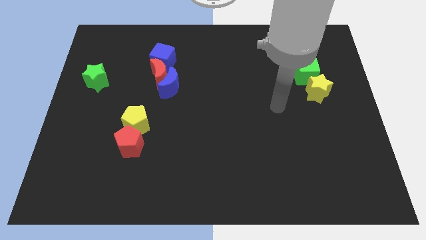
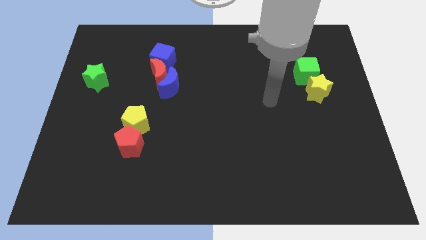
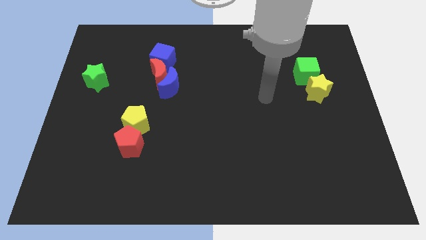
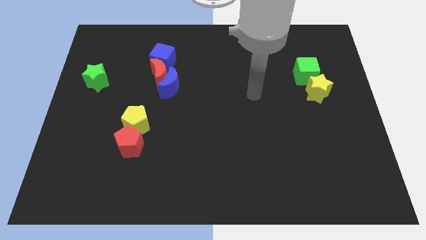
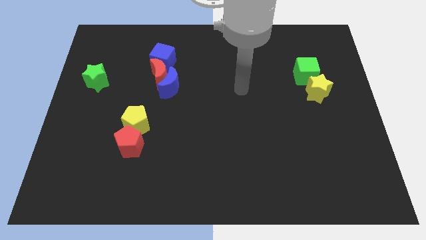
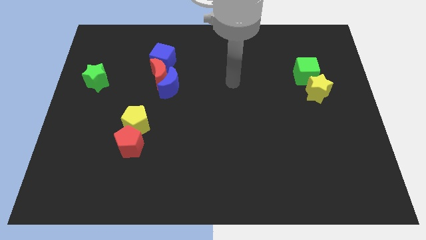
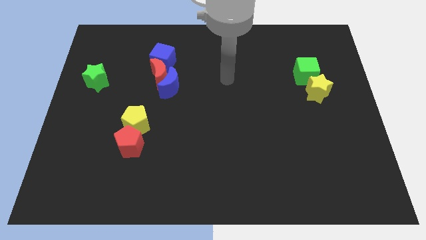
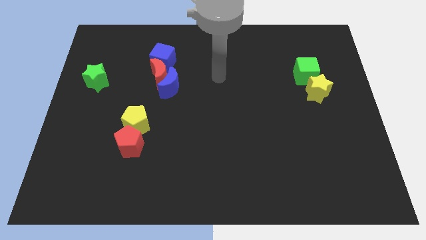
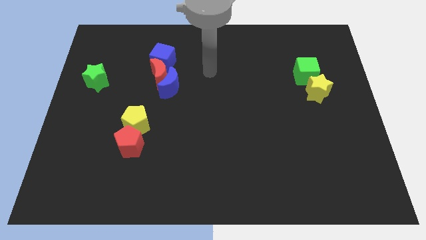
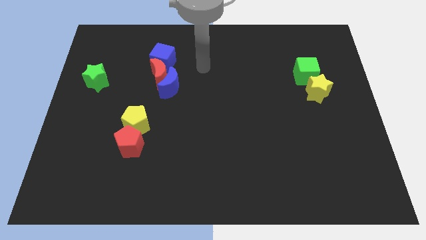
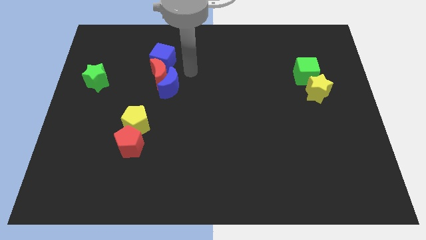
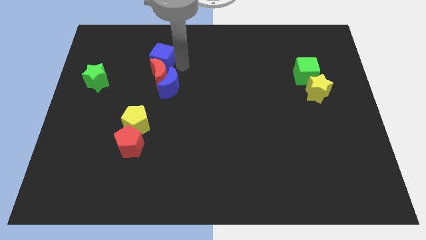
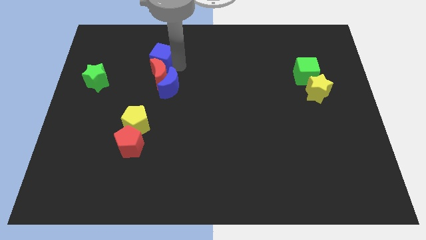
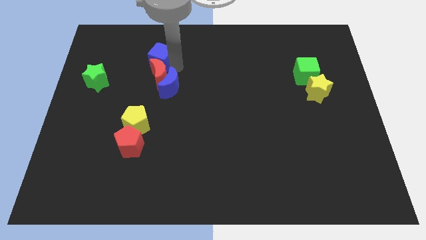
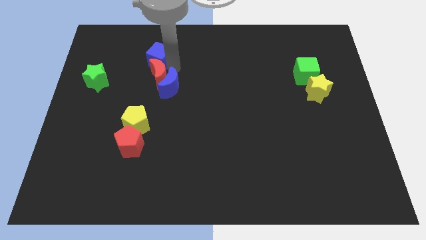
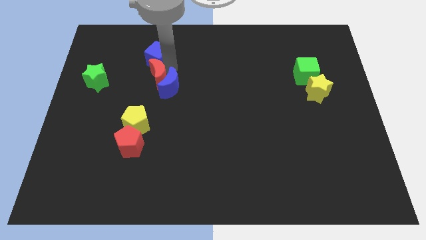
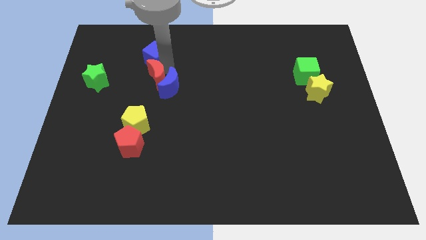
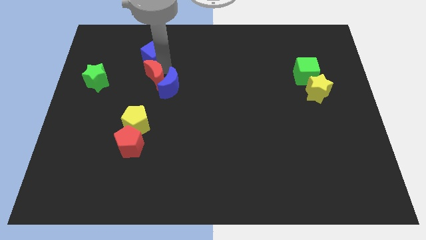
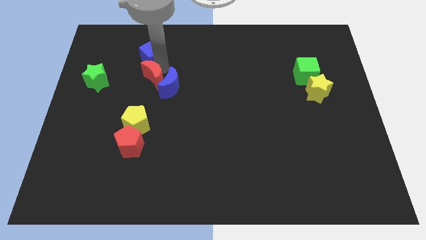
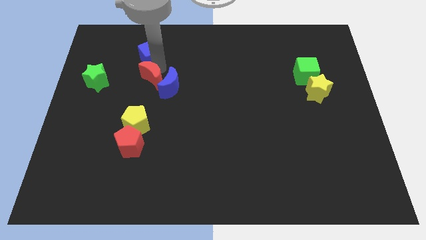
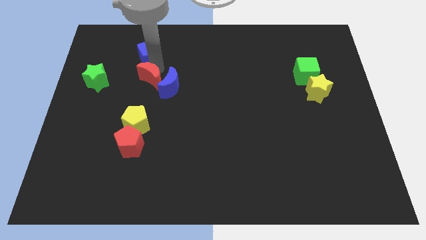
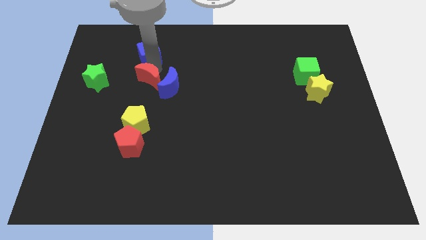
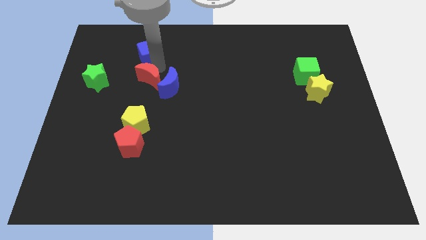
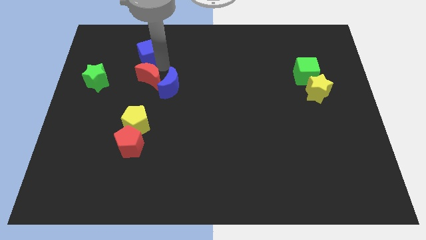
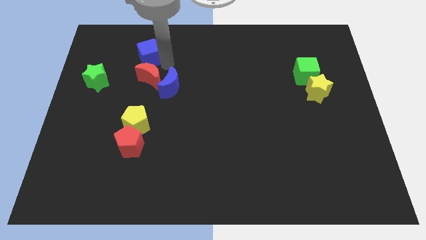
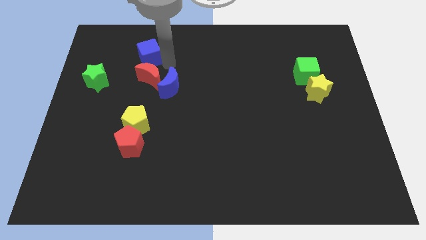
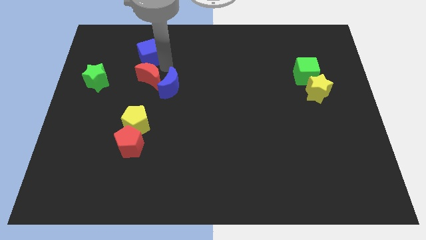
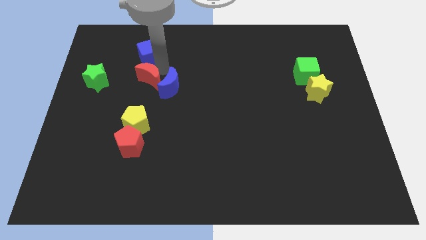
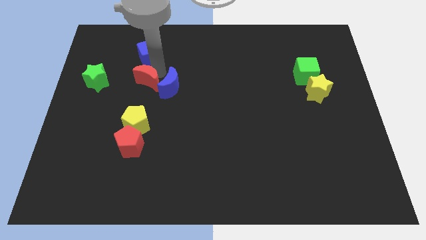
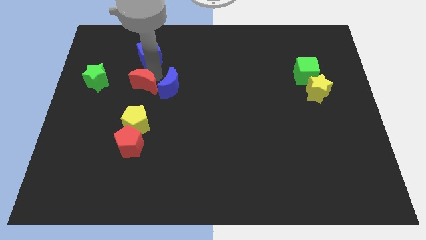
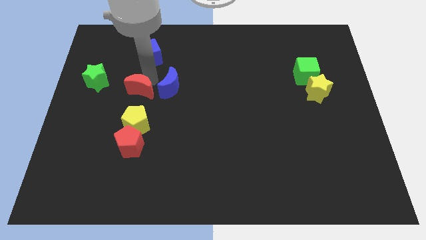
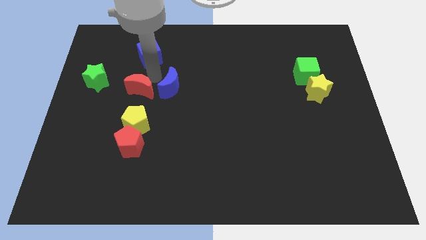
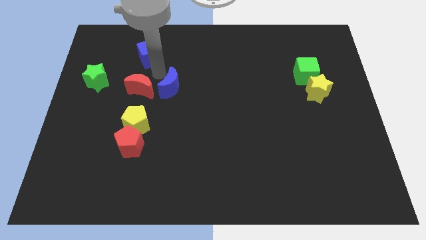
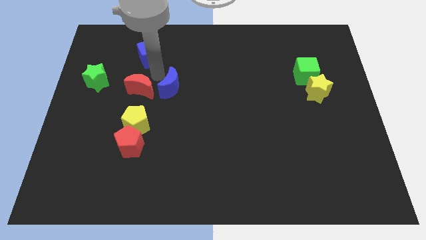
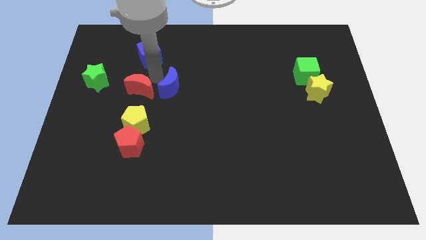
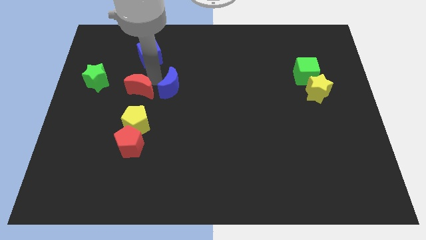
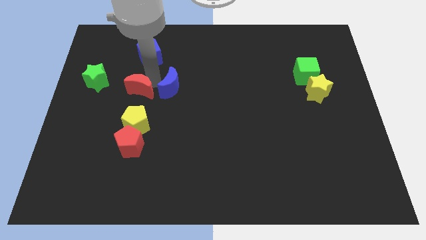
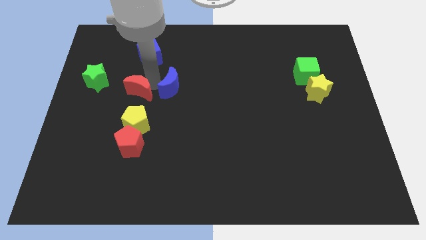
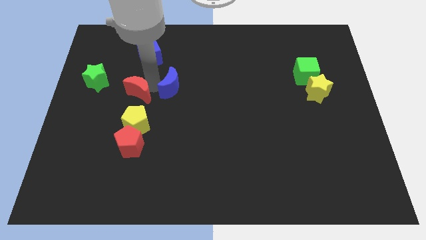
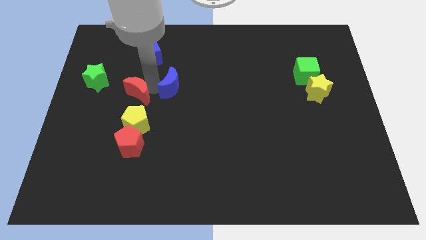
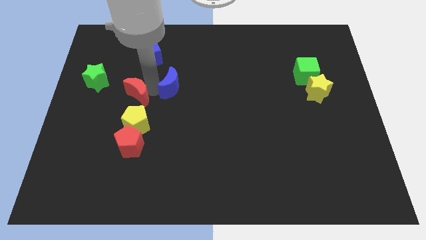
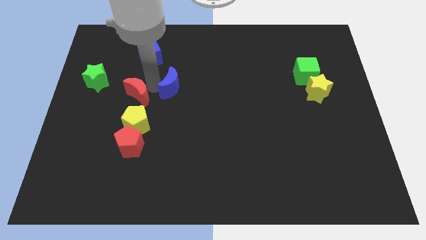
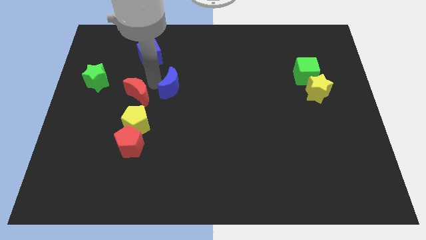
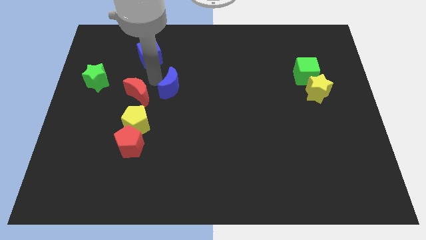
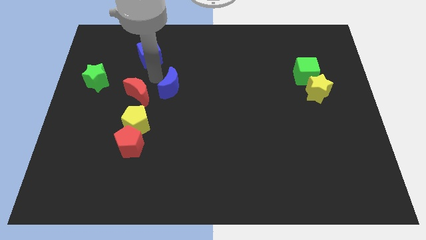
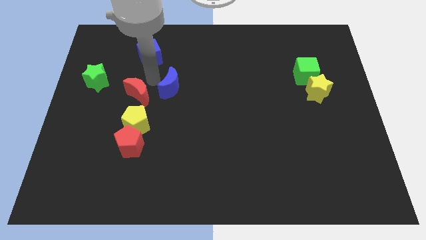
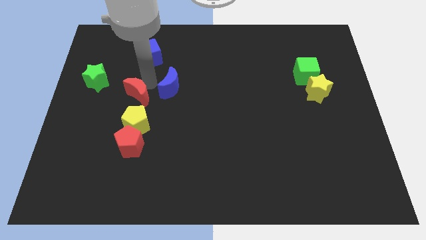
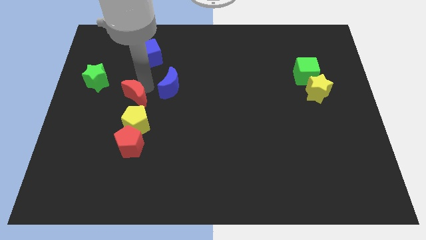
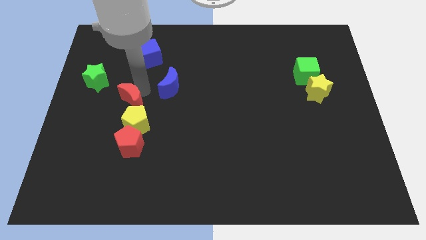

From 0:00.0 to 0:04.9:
pull the red moon apart from the blue moon and blue cube

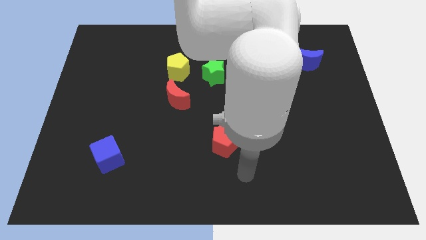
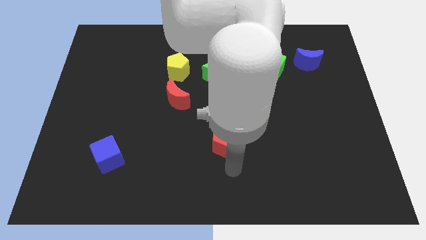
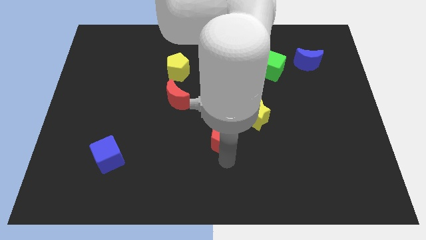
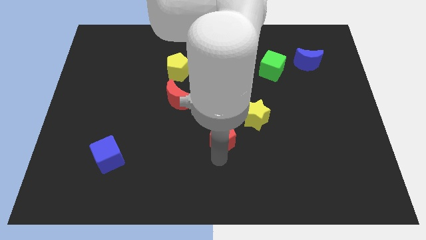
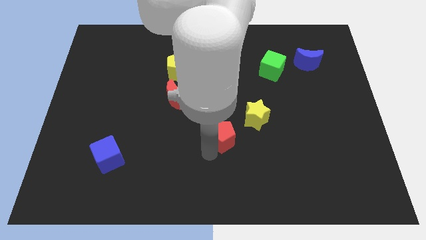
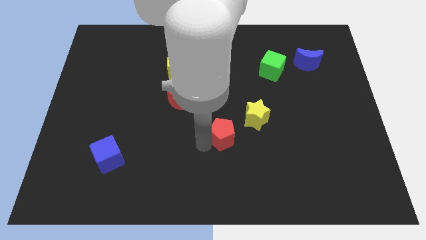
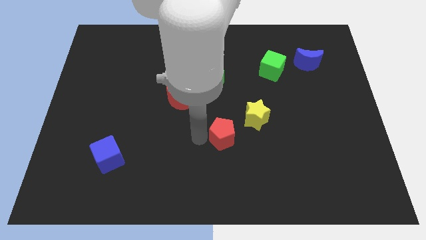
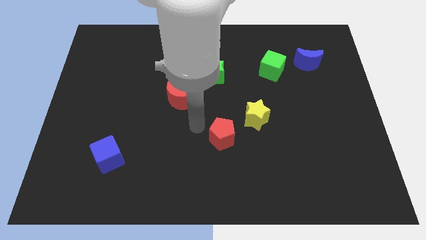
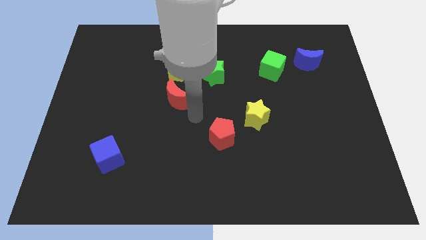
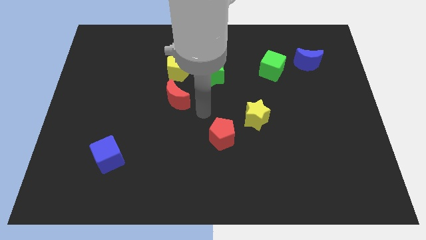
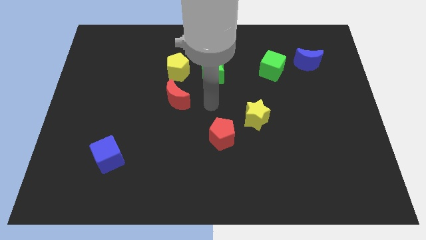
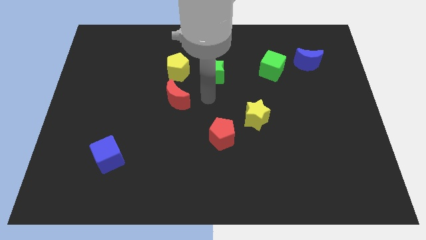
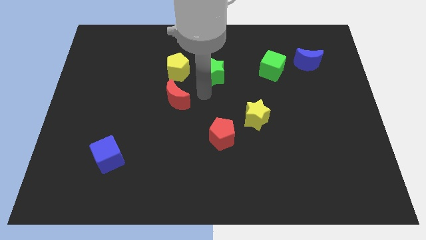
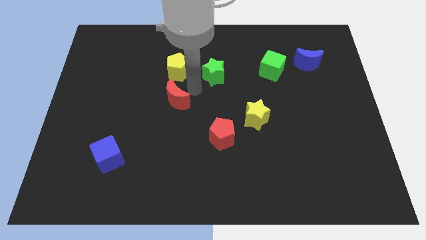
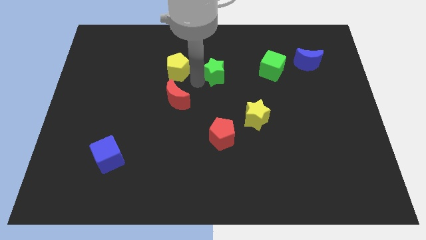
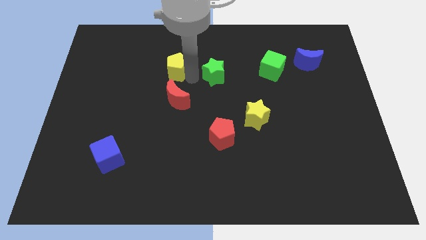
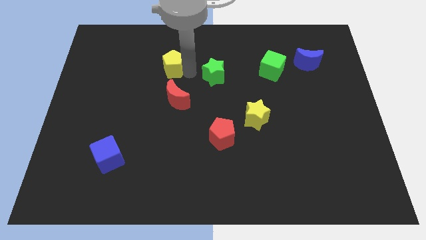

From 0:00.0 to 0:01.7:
move the green star away from the yellow pentagon

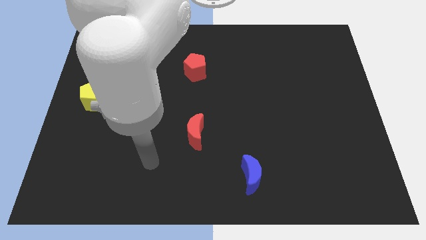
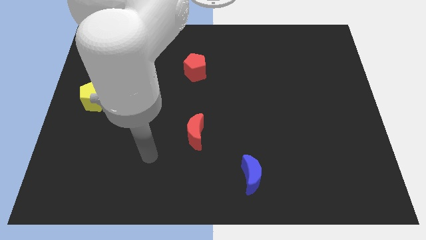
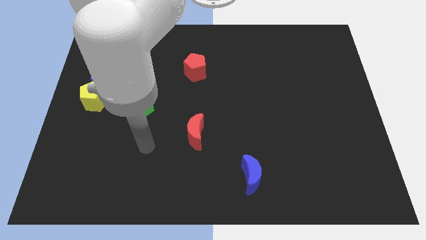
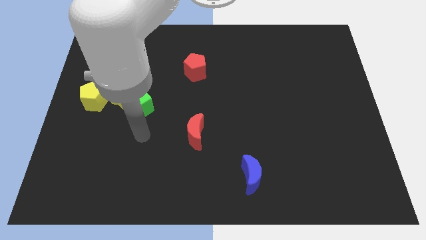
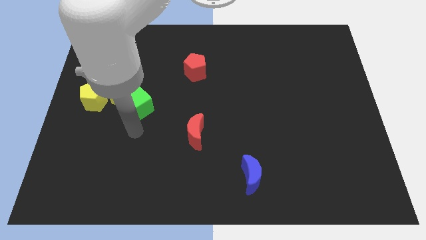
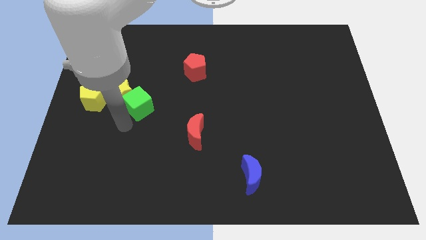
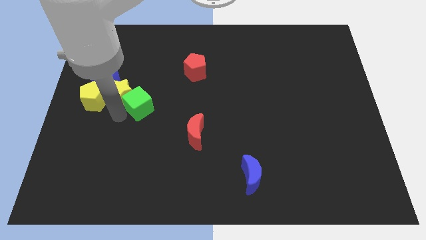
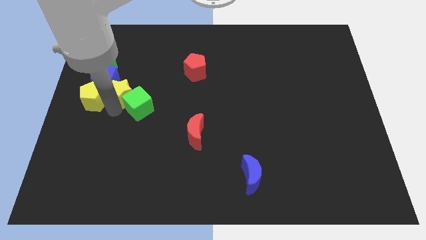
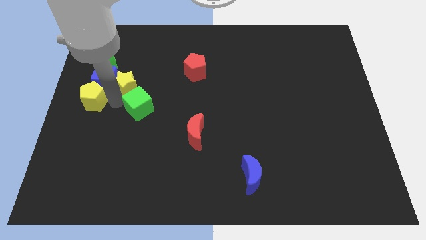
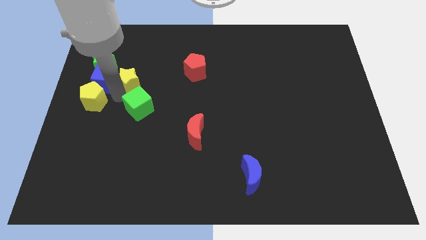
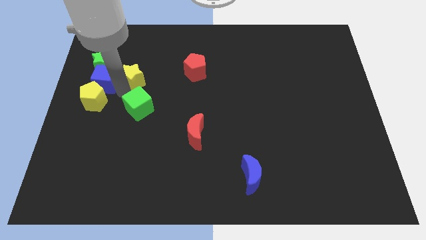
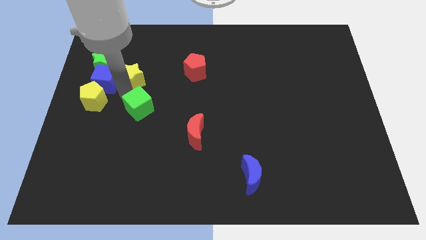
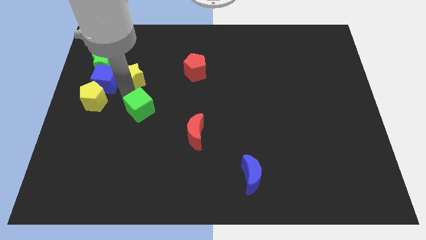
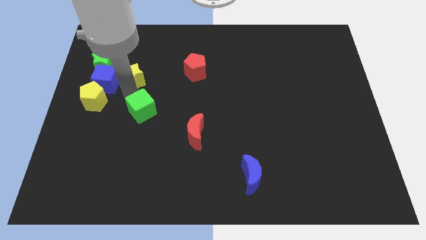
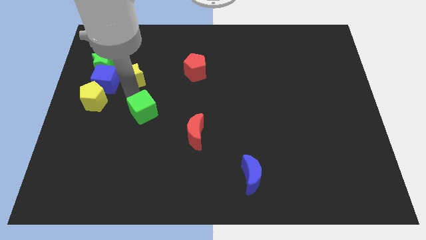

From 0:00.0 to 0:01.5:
pull the green cube apart from the yellow star

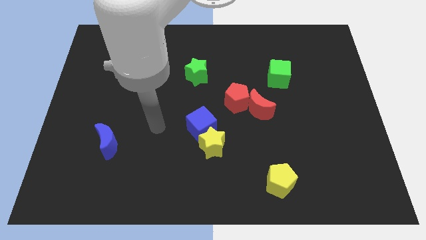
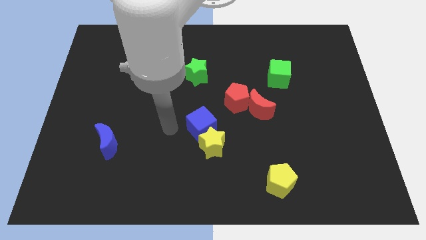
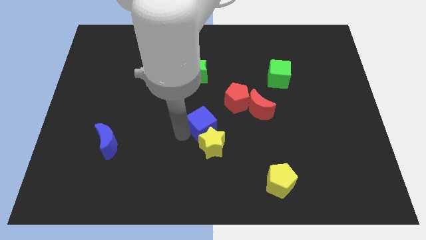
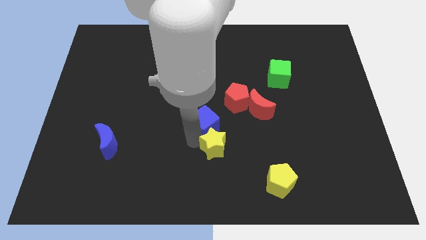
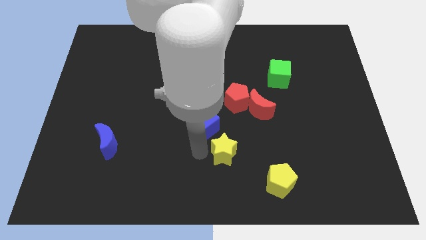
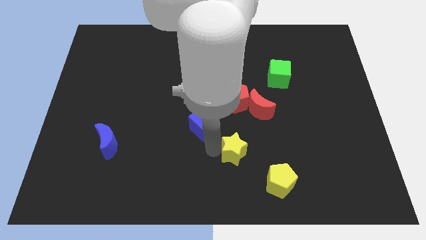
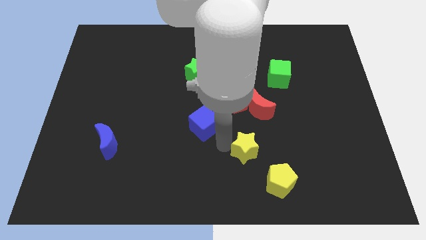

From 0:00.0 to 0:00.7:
separate the blue cube from the yellow star

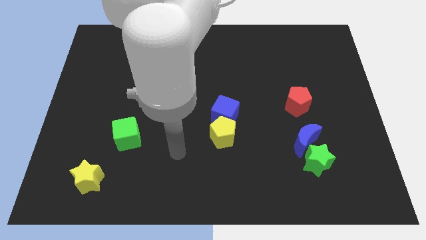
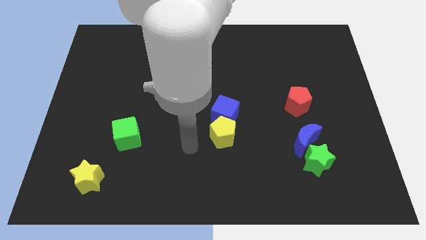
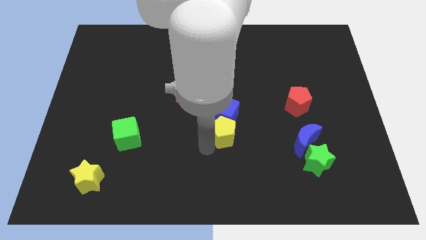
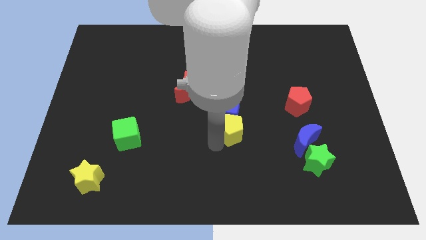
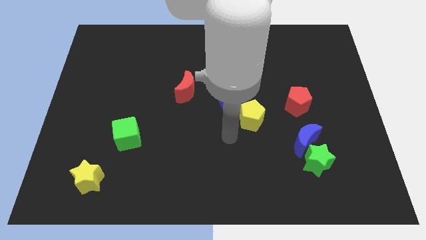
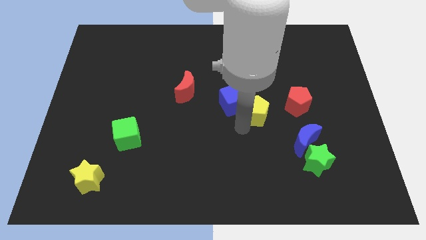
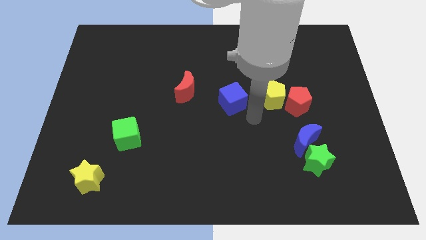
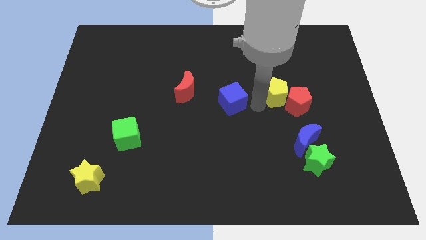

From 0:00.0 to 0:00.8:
move the blue cube away from the yellow pentagon
